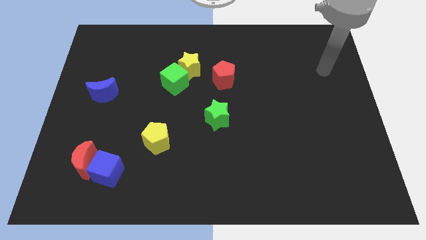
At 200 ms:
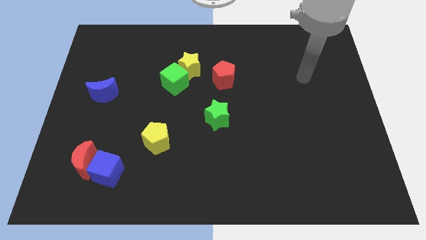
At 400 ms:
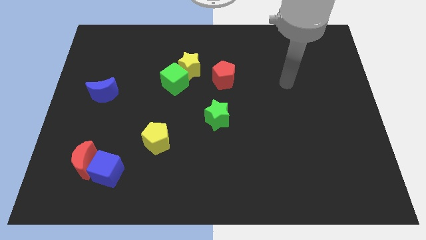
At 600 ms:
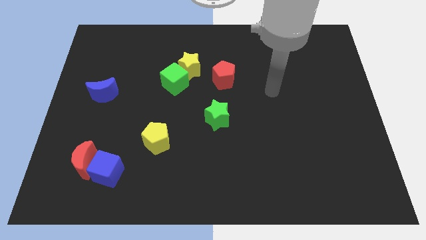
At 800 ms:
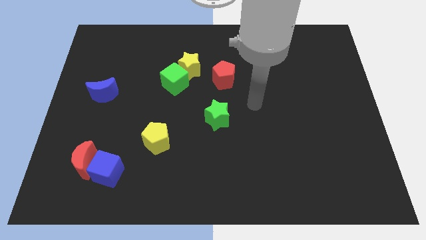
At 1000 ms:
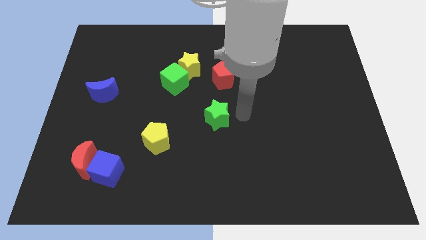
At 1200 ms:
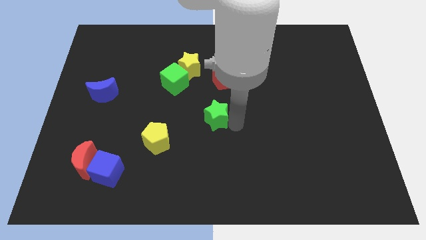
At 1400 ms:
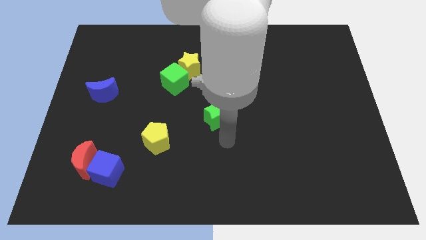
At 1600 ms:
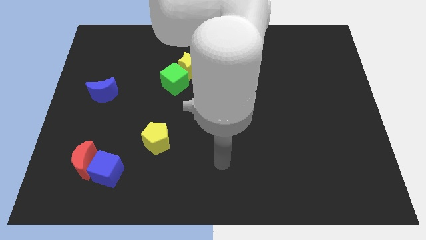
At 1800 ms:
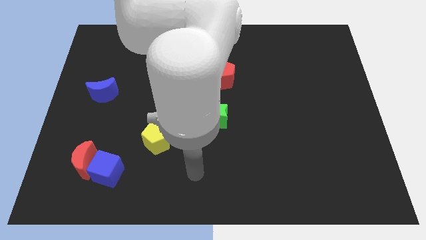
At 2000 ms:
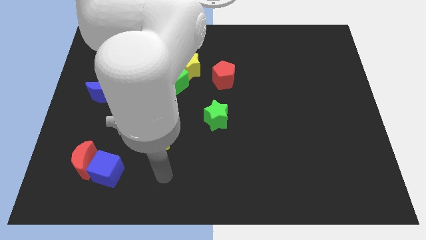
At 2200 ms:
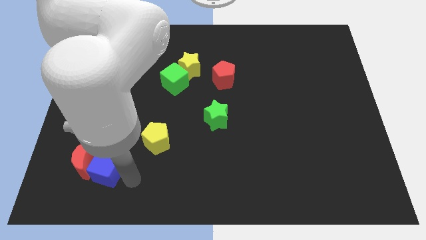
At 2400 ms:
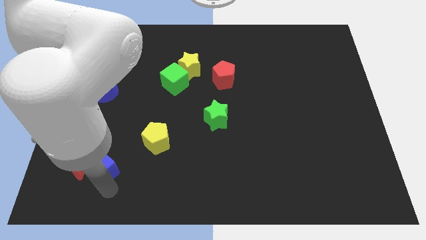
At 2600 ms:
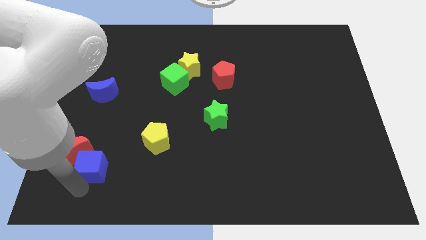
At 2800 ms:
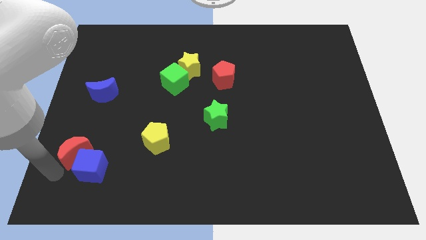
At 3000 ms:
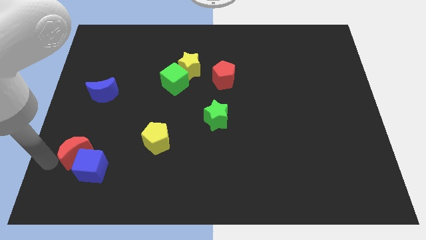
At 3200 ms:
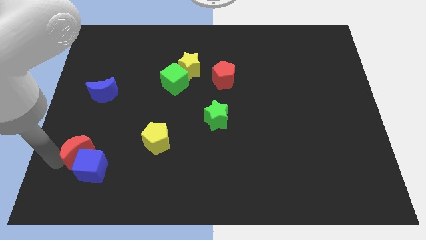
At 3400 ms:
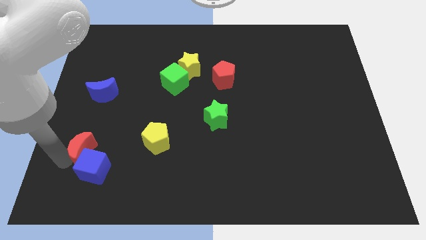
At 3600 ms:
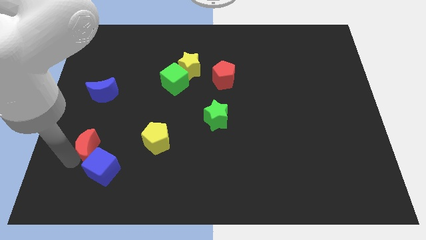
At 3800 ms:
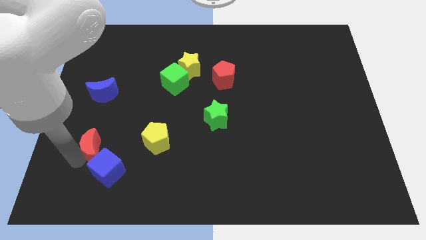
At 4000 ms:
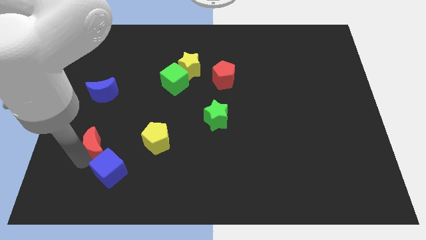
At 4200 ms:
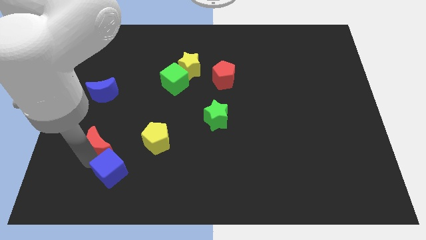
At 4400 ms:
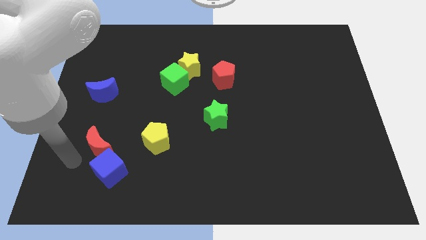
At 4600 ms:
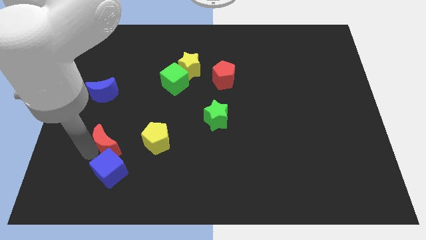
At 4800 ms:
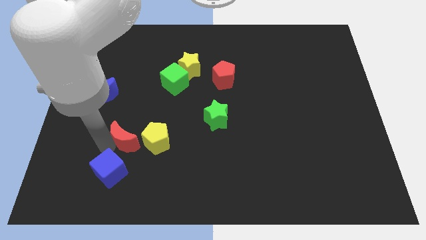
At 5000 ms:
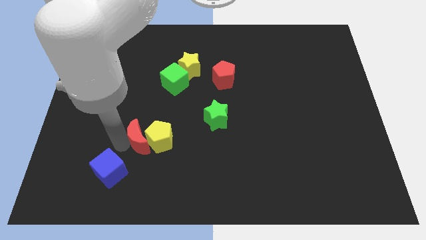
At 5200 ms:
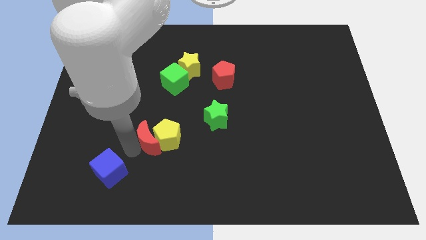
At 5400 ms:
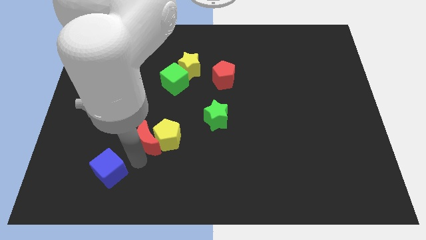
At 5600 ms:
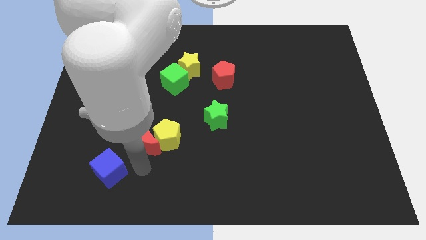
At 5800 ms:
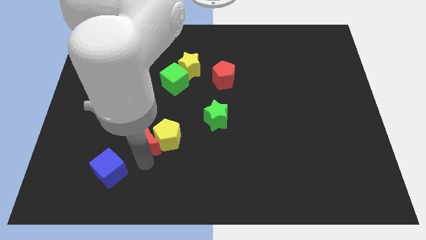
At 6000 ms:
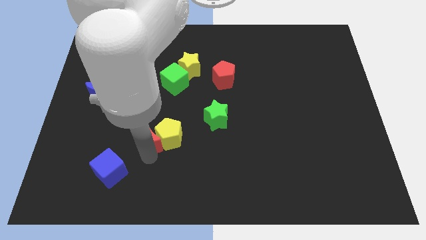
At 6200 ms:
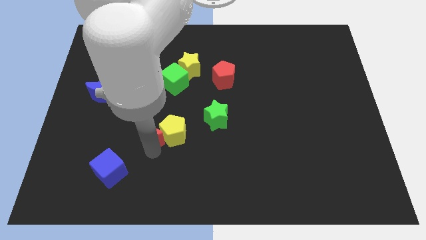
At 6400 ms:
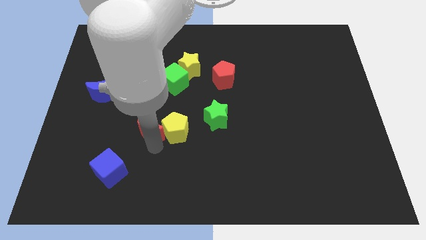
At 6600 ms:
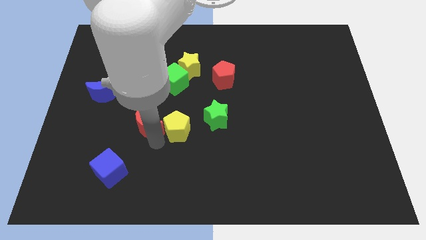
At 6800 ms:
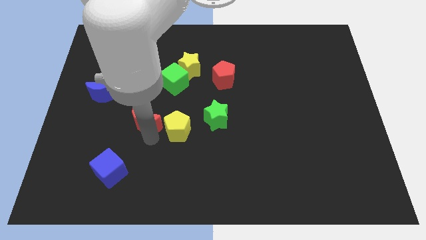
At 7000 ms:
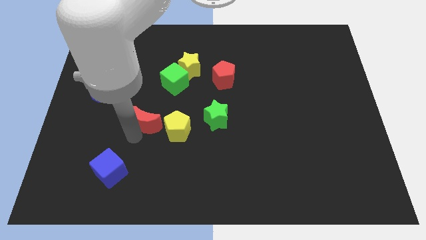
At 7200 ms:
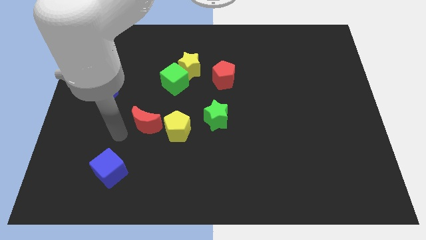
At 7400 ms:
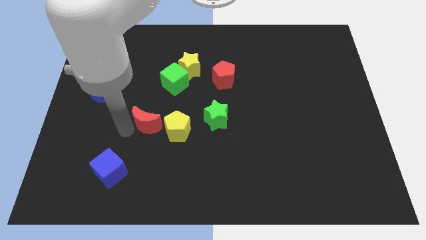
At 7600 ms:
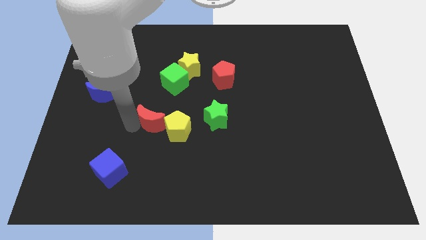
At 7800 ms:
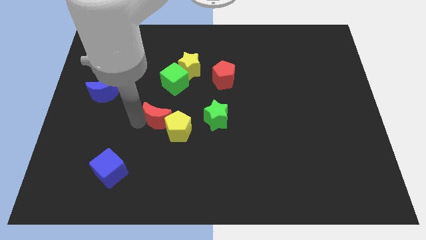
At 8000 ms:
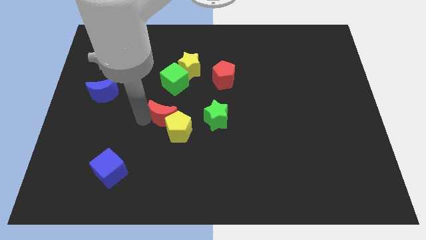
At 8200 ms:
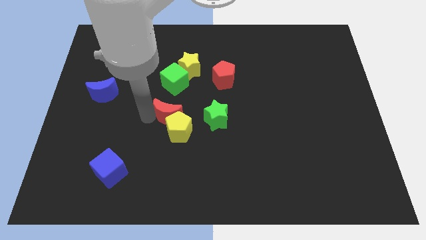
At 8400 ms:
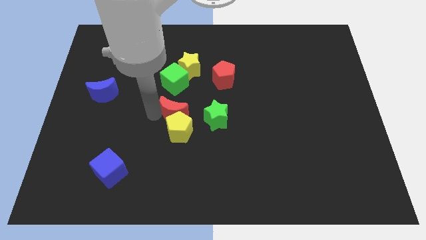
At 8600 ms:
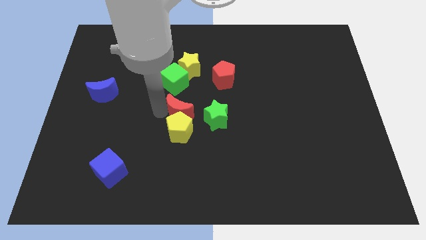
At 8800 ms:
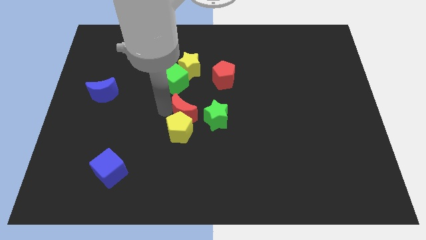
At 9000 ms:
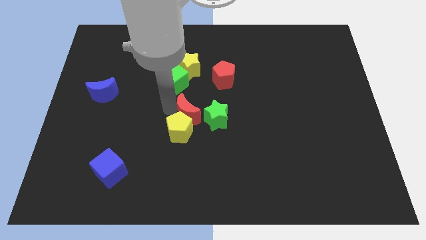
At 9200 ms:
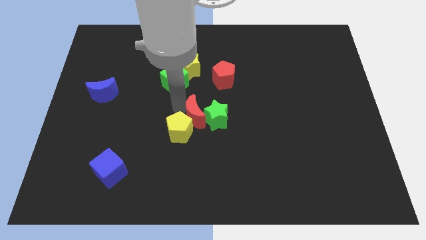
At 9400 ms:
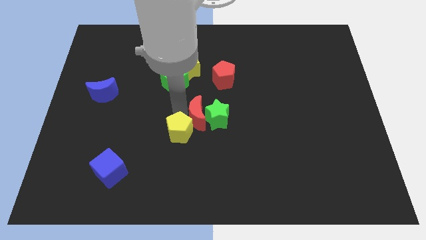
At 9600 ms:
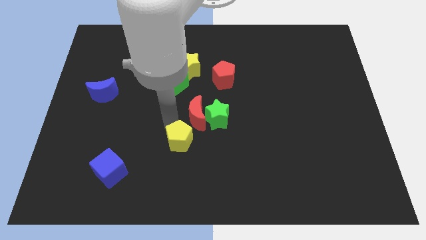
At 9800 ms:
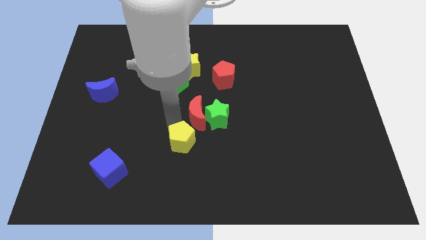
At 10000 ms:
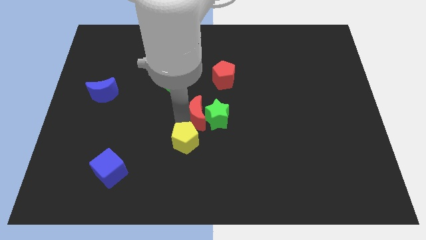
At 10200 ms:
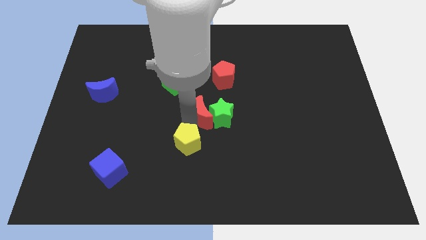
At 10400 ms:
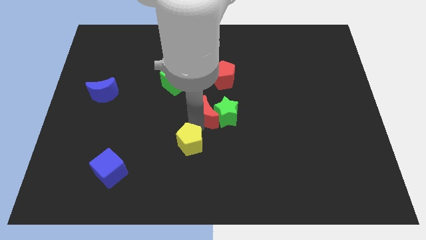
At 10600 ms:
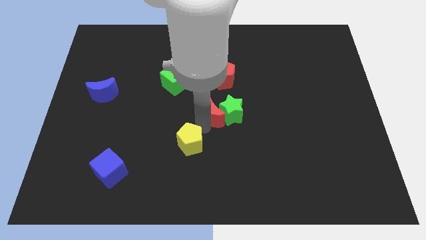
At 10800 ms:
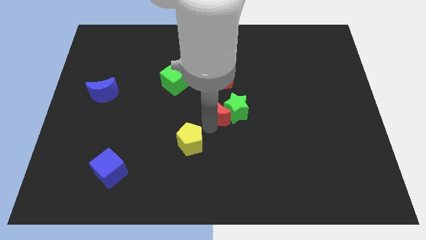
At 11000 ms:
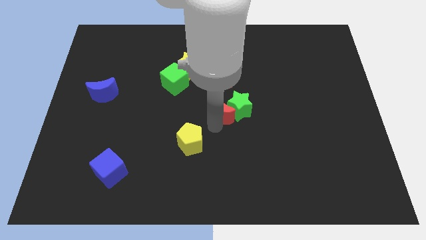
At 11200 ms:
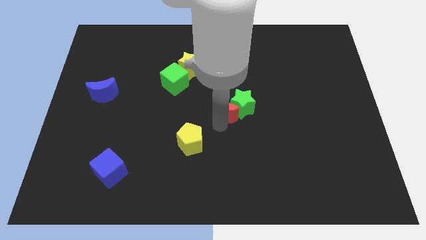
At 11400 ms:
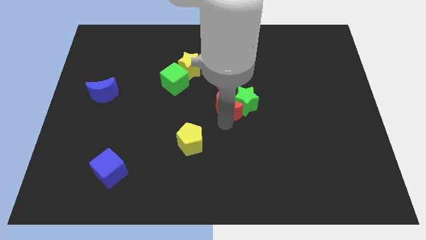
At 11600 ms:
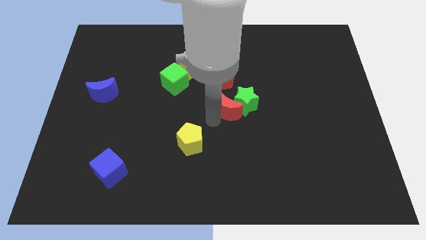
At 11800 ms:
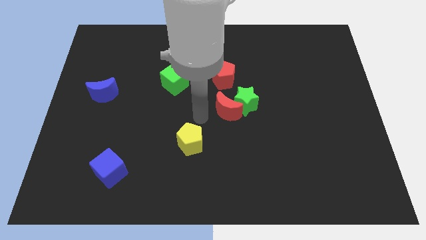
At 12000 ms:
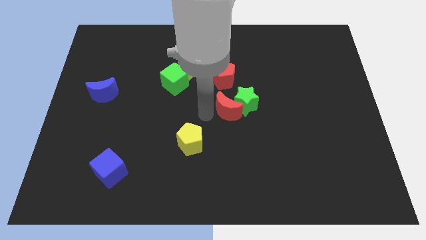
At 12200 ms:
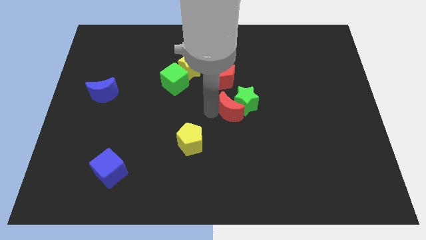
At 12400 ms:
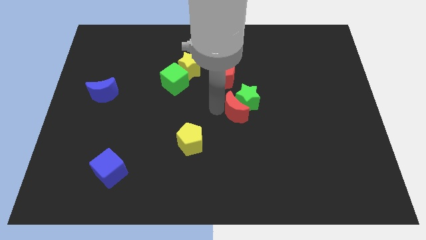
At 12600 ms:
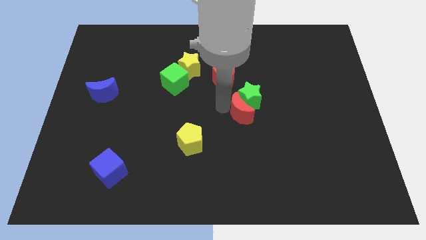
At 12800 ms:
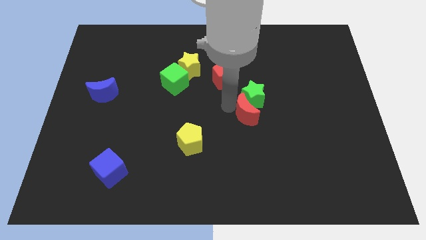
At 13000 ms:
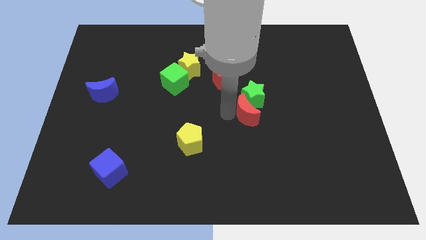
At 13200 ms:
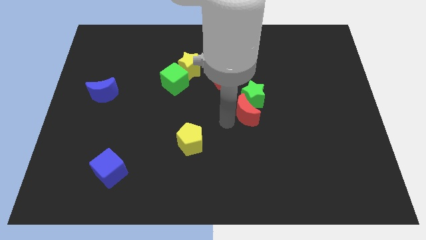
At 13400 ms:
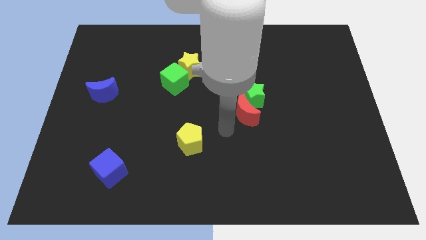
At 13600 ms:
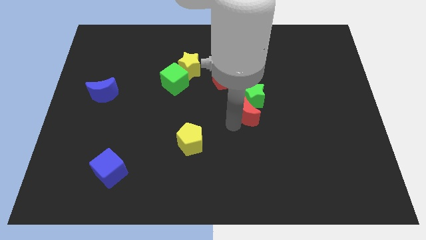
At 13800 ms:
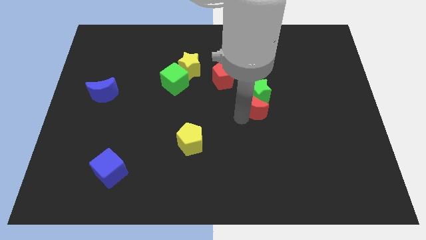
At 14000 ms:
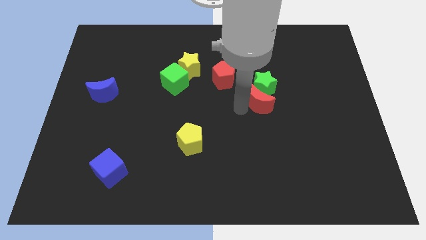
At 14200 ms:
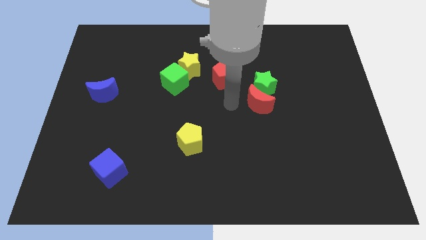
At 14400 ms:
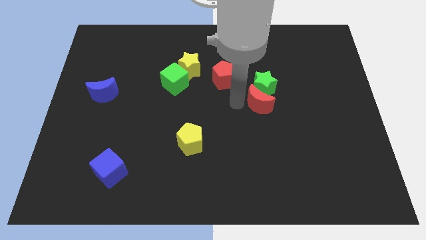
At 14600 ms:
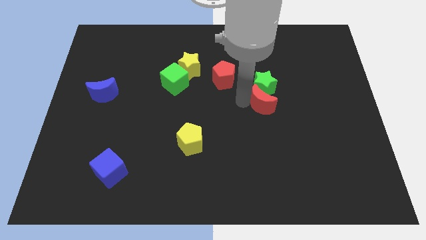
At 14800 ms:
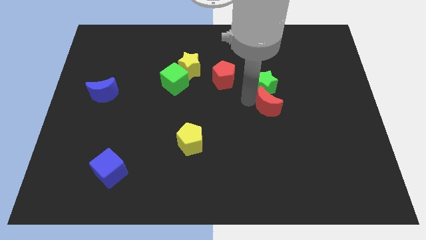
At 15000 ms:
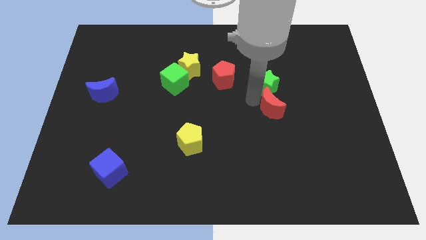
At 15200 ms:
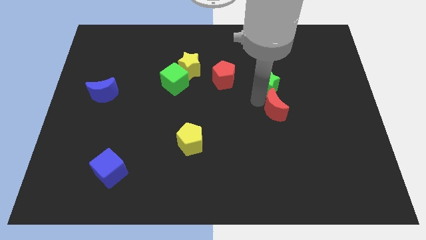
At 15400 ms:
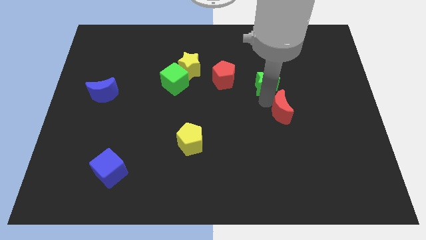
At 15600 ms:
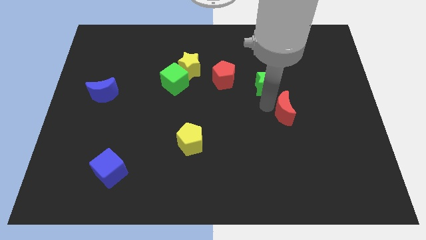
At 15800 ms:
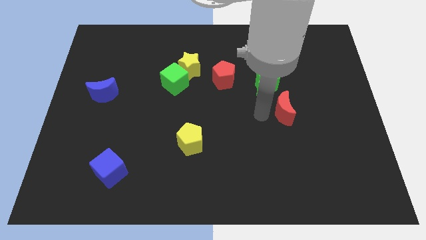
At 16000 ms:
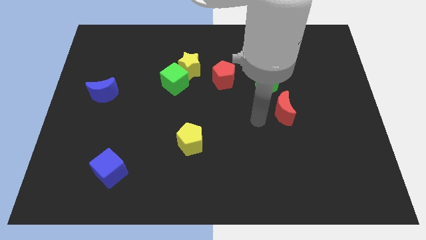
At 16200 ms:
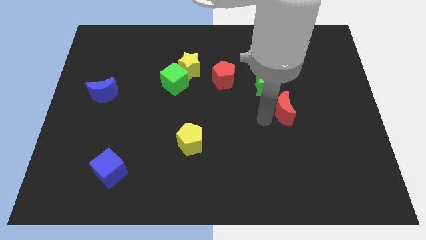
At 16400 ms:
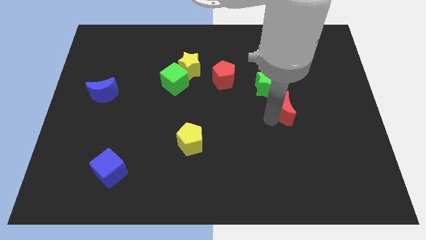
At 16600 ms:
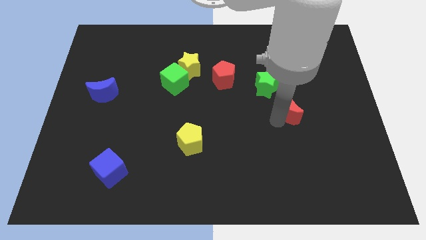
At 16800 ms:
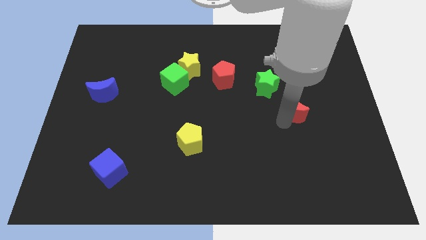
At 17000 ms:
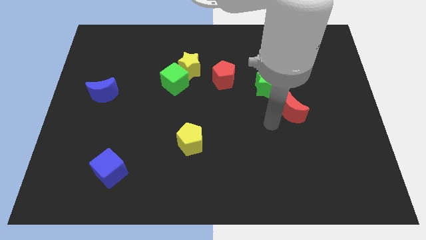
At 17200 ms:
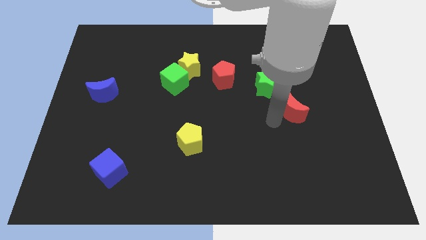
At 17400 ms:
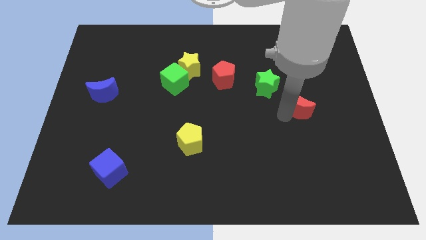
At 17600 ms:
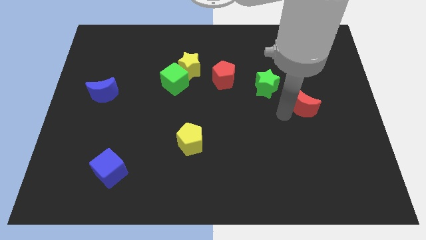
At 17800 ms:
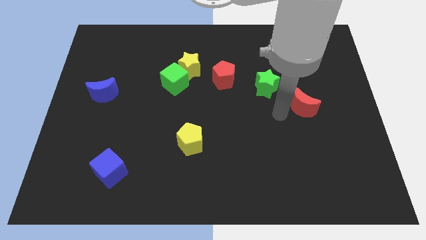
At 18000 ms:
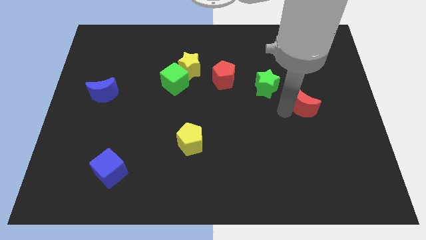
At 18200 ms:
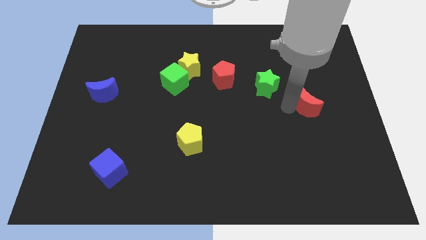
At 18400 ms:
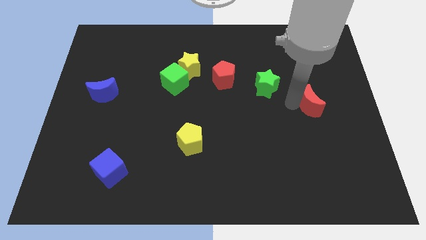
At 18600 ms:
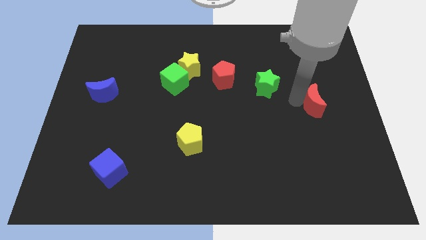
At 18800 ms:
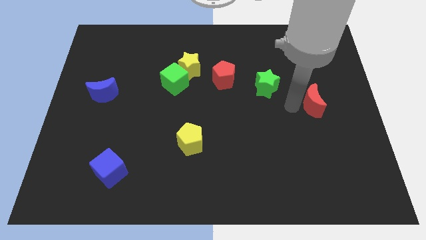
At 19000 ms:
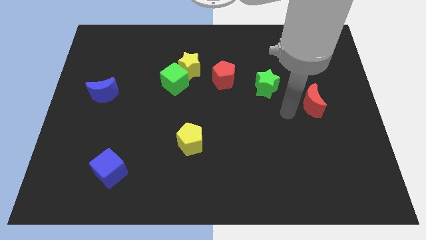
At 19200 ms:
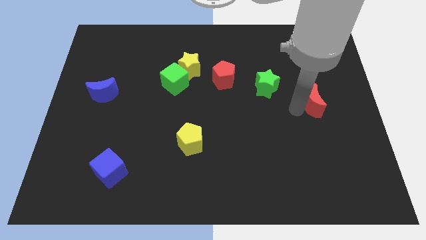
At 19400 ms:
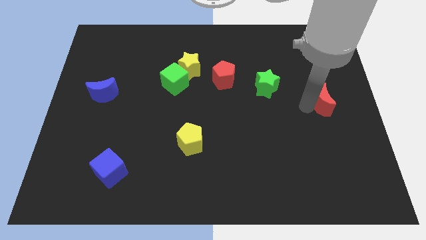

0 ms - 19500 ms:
move the red moon to the right side of the board
